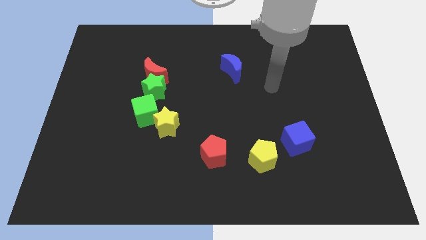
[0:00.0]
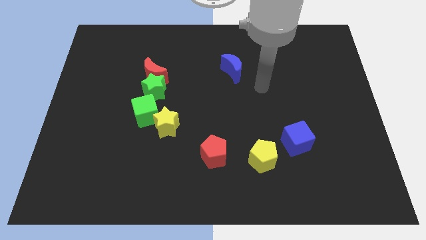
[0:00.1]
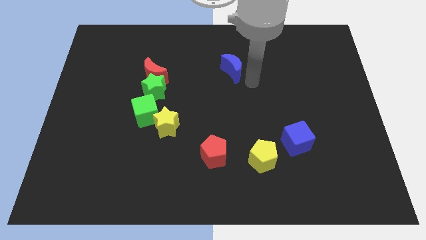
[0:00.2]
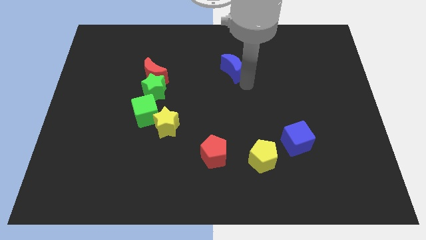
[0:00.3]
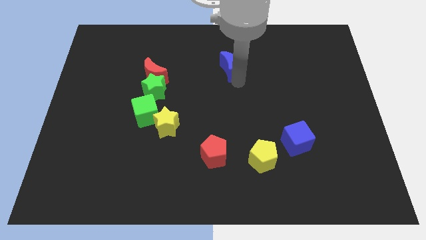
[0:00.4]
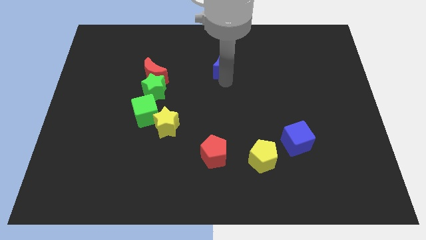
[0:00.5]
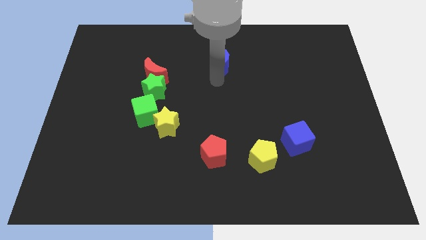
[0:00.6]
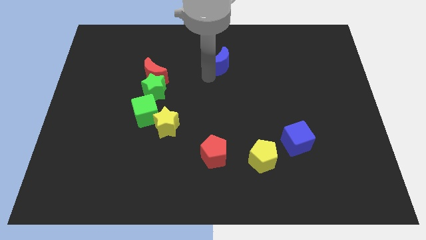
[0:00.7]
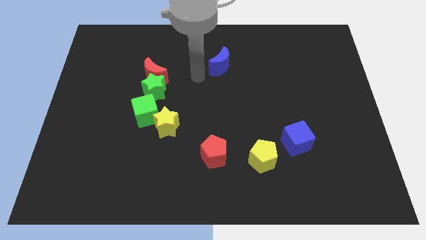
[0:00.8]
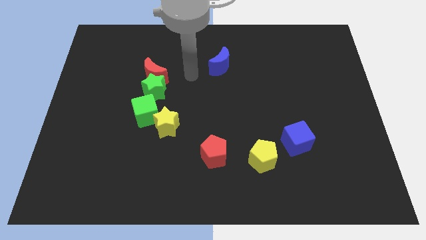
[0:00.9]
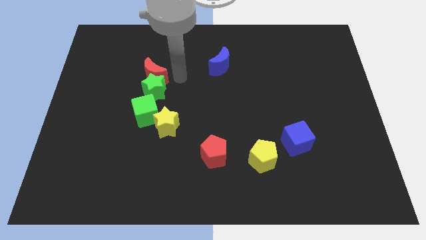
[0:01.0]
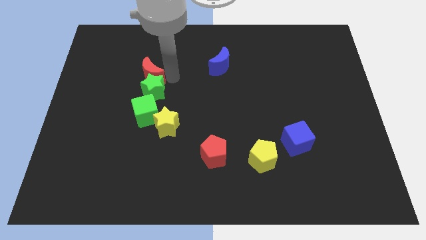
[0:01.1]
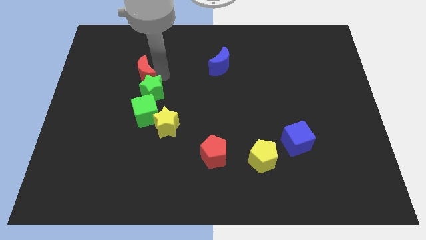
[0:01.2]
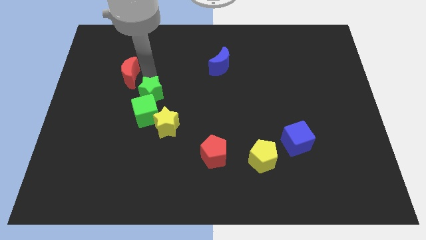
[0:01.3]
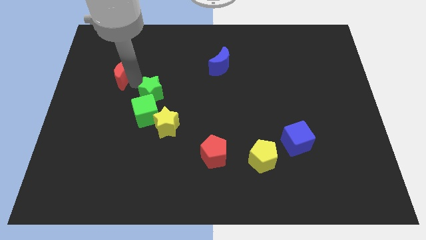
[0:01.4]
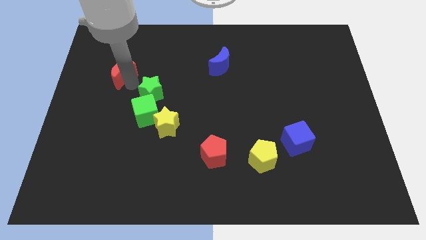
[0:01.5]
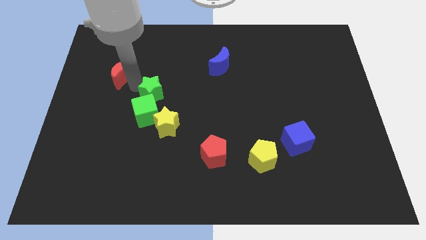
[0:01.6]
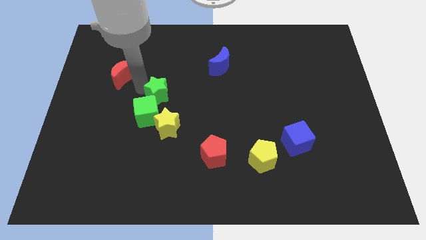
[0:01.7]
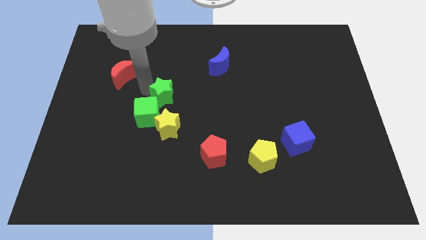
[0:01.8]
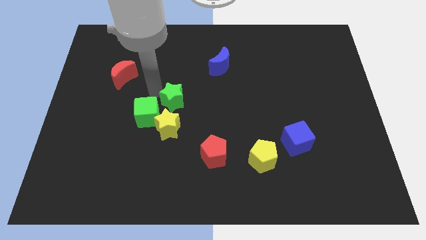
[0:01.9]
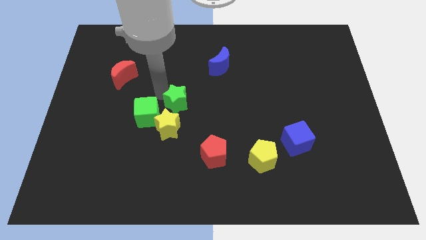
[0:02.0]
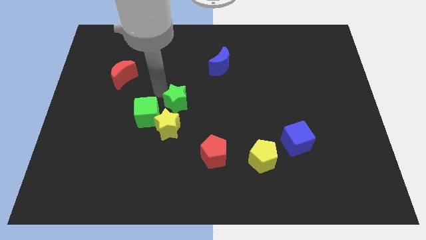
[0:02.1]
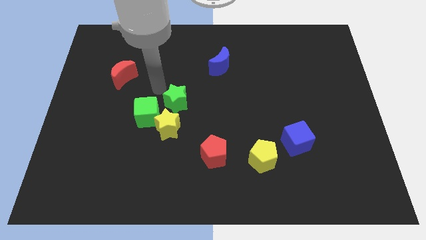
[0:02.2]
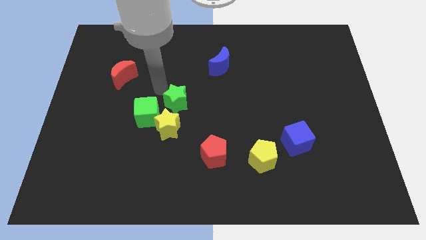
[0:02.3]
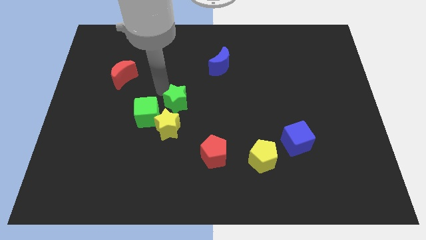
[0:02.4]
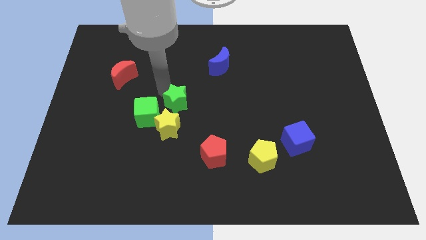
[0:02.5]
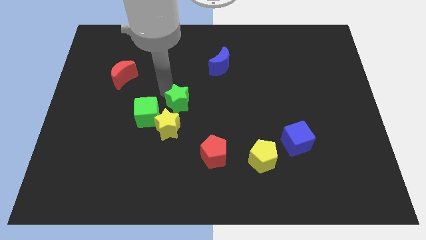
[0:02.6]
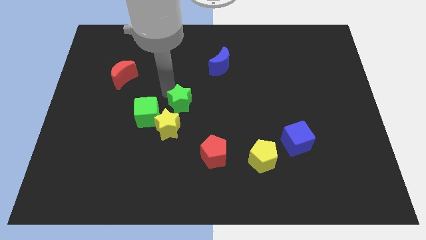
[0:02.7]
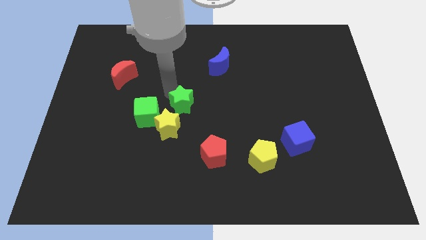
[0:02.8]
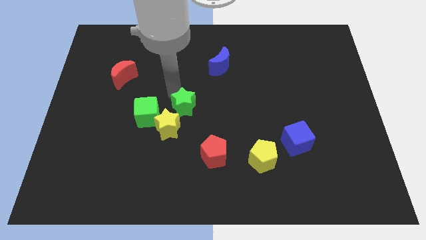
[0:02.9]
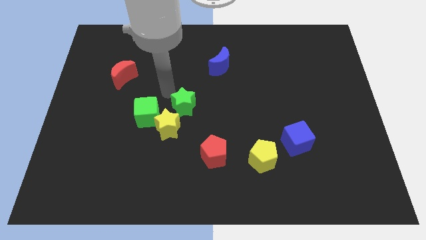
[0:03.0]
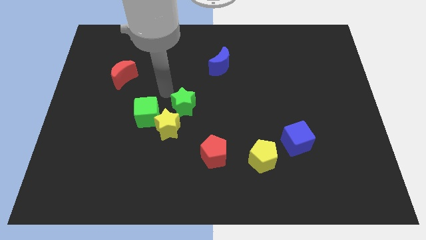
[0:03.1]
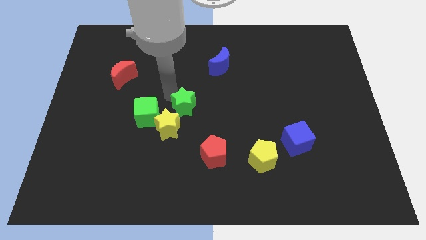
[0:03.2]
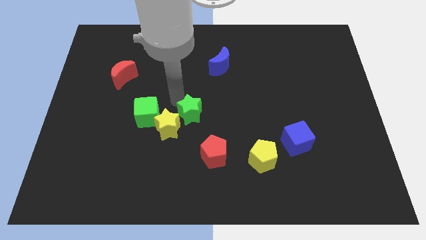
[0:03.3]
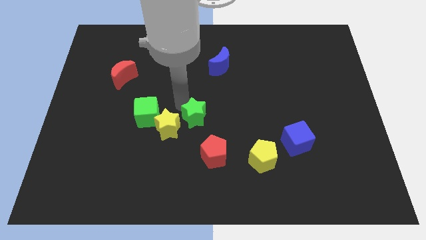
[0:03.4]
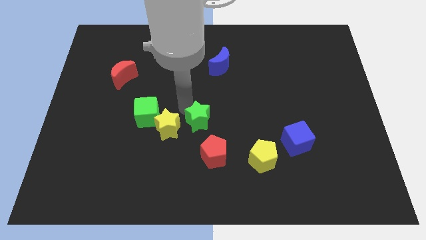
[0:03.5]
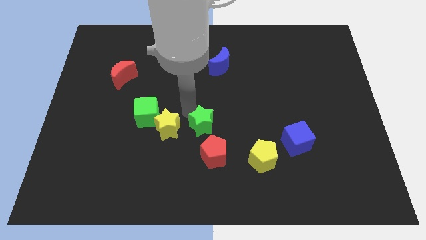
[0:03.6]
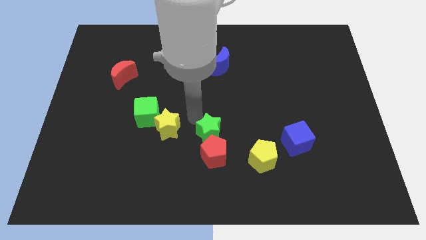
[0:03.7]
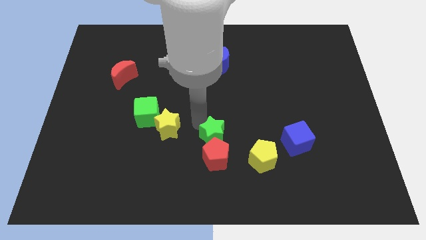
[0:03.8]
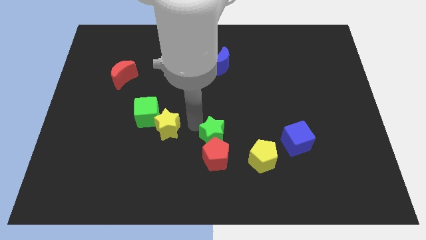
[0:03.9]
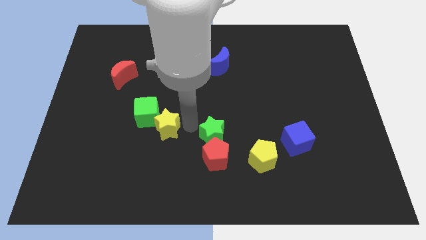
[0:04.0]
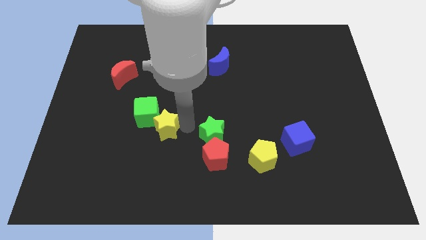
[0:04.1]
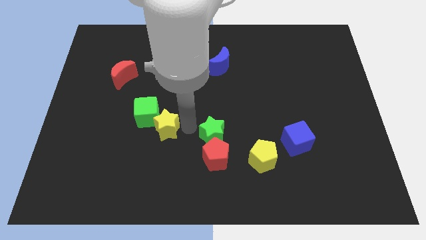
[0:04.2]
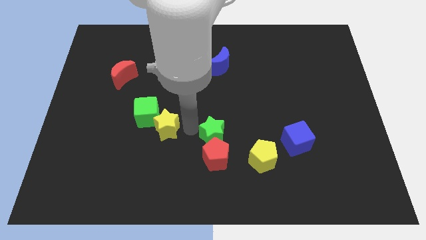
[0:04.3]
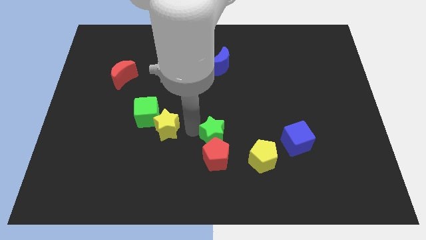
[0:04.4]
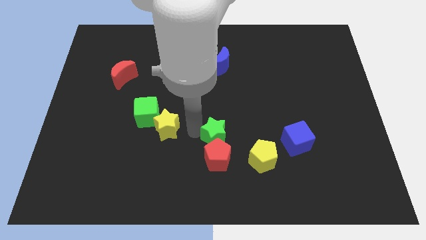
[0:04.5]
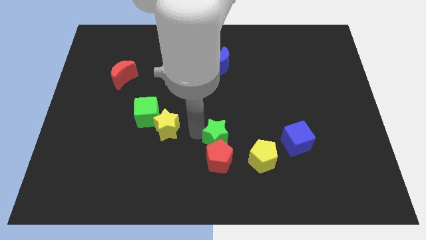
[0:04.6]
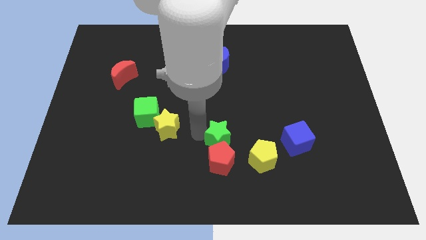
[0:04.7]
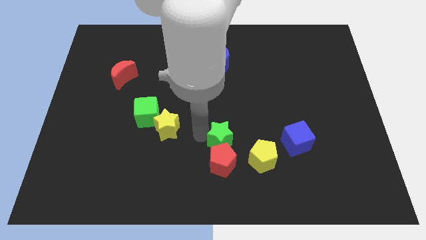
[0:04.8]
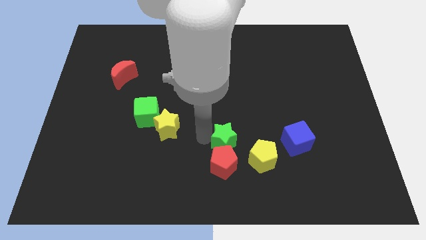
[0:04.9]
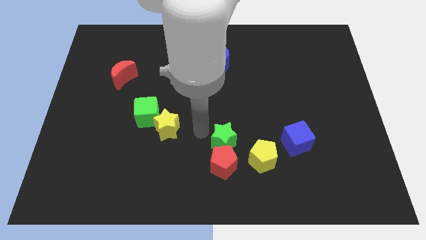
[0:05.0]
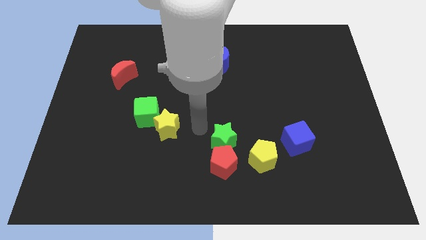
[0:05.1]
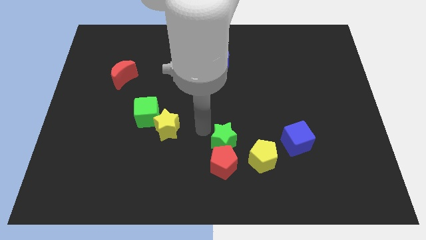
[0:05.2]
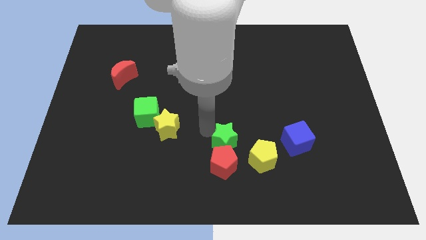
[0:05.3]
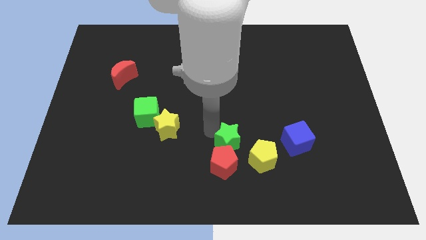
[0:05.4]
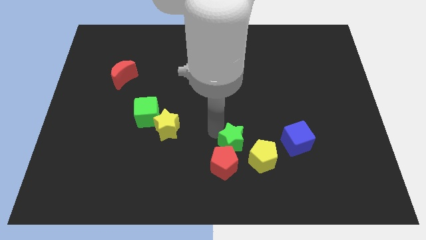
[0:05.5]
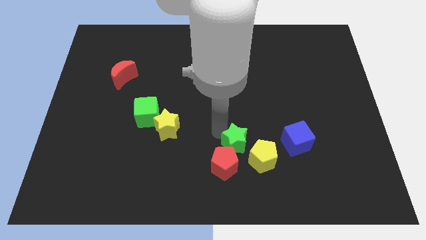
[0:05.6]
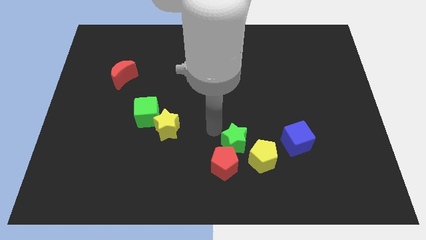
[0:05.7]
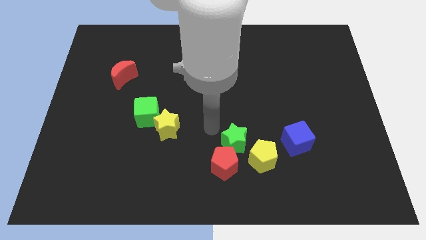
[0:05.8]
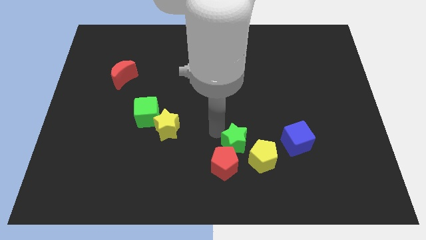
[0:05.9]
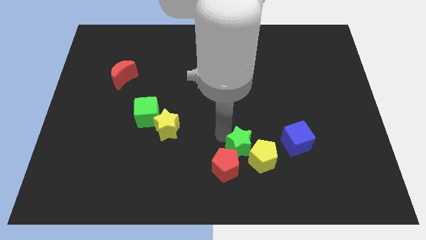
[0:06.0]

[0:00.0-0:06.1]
slide the green star to the yellow pentagon
